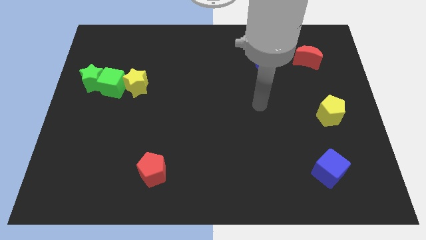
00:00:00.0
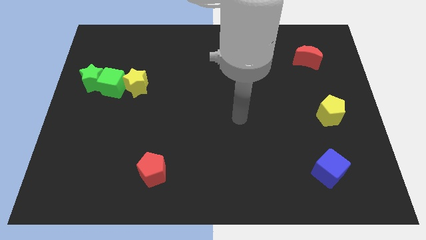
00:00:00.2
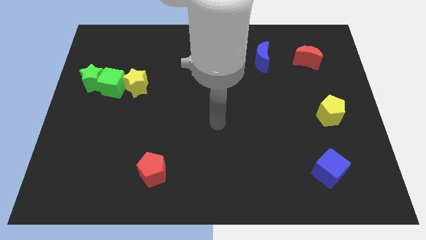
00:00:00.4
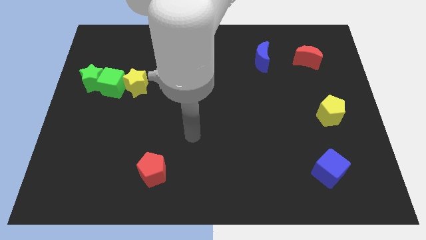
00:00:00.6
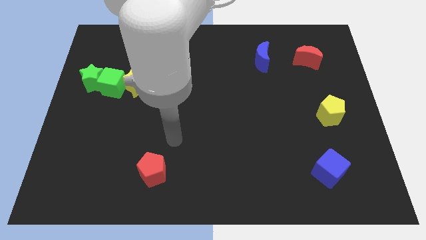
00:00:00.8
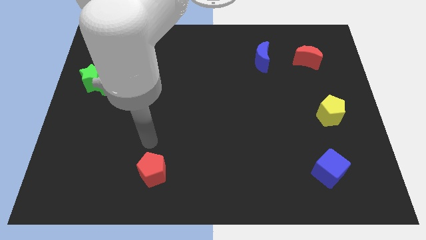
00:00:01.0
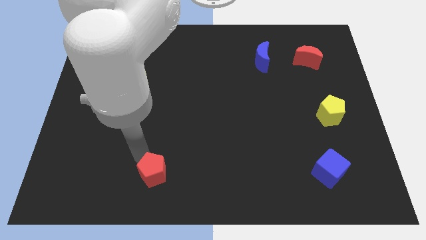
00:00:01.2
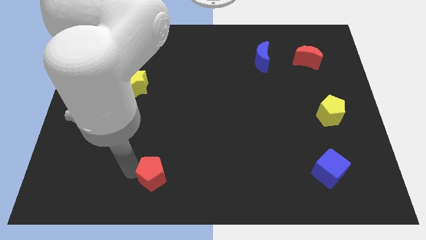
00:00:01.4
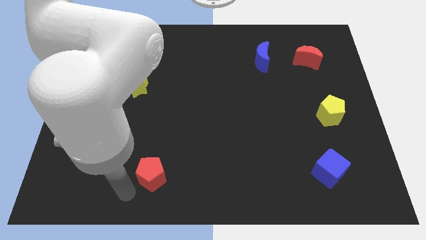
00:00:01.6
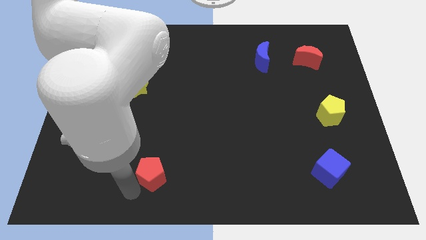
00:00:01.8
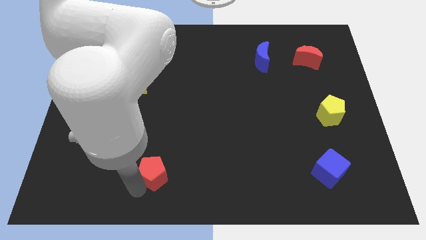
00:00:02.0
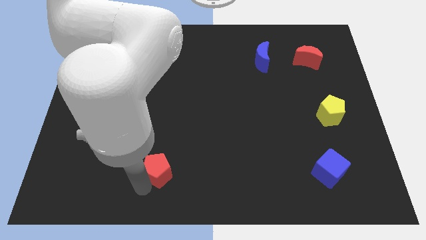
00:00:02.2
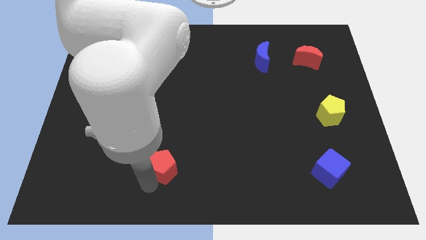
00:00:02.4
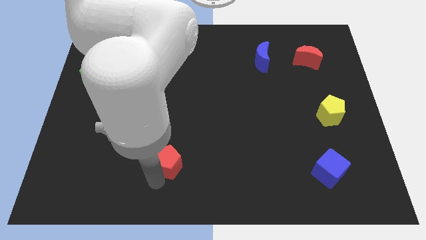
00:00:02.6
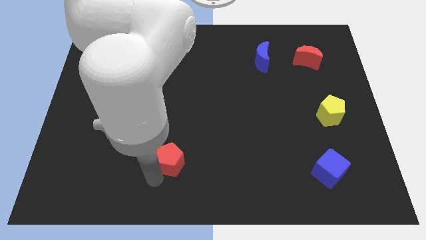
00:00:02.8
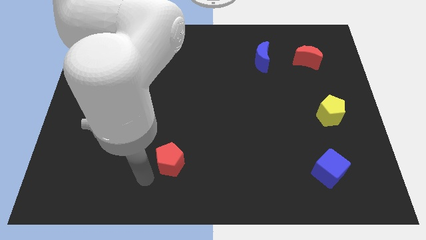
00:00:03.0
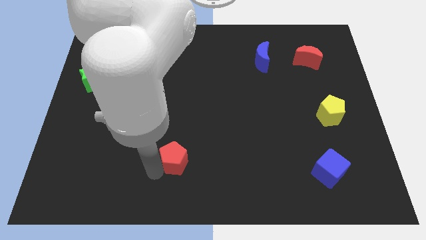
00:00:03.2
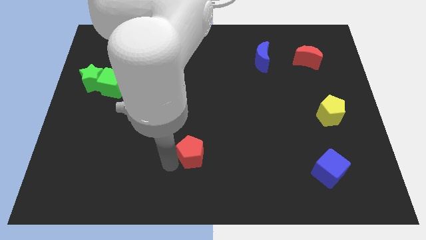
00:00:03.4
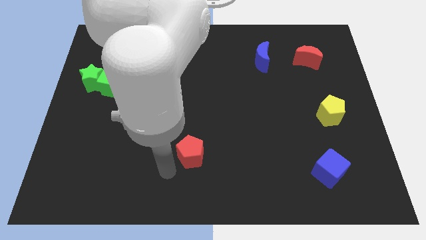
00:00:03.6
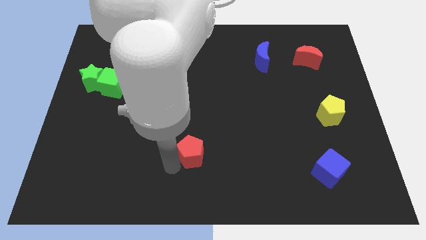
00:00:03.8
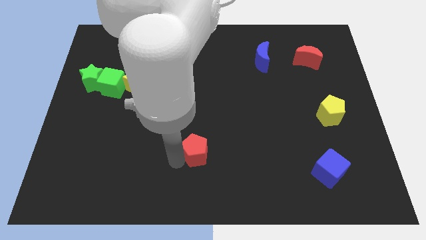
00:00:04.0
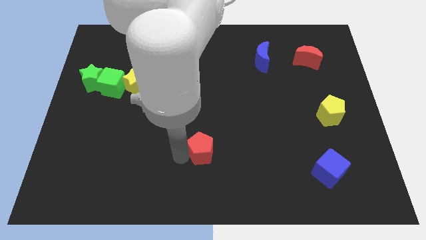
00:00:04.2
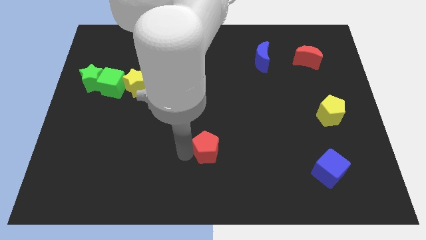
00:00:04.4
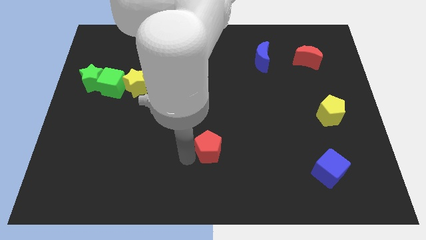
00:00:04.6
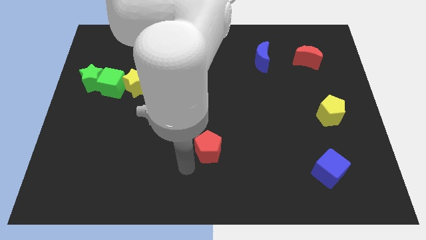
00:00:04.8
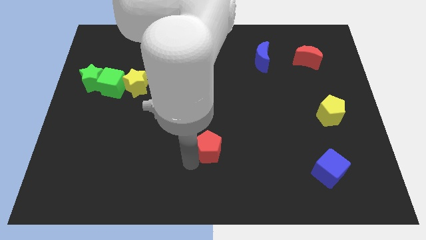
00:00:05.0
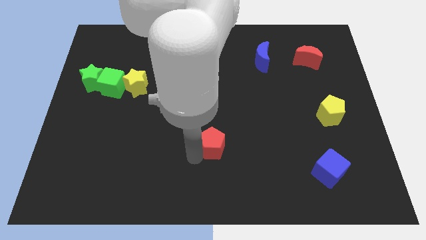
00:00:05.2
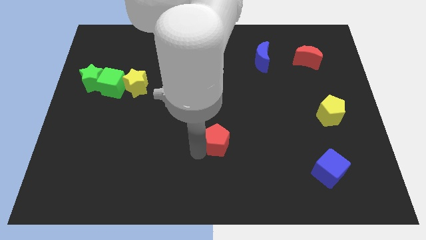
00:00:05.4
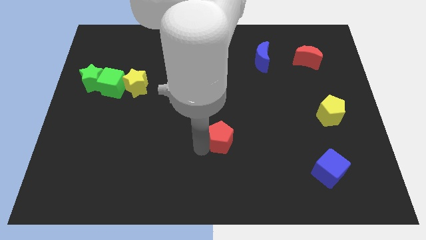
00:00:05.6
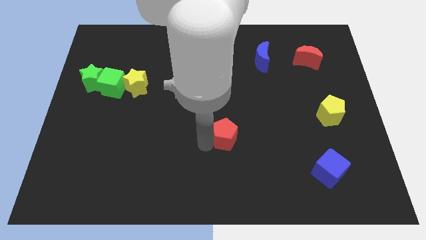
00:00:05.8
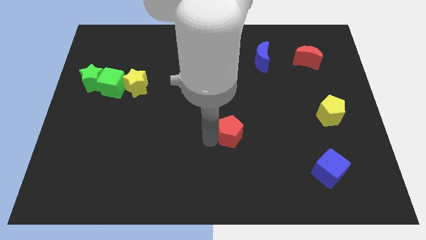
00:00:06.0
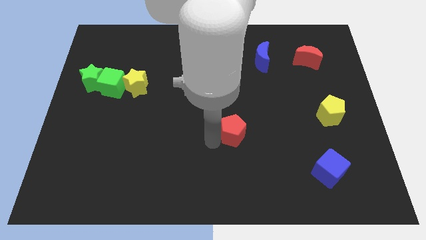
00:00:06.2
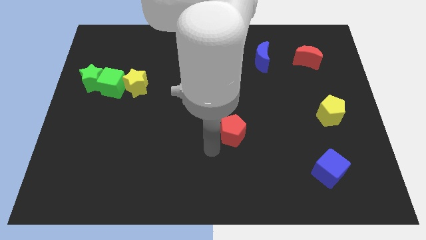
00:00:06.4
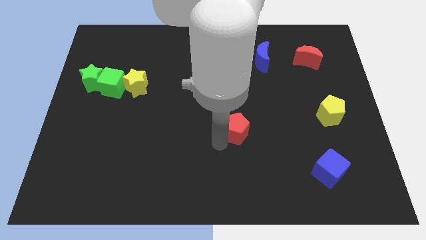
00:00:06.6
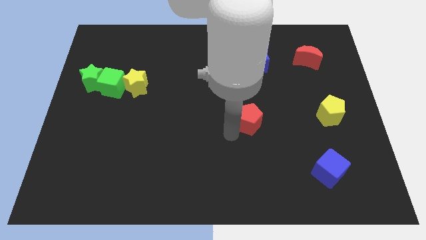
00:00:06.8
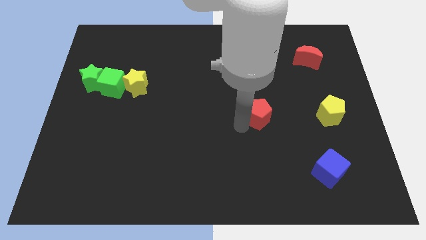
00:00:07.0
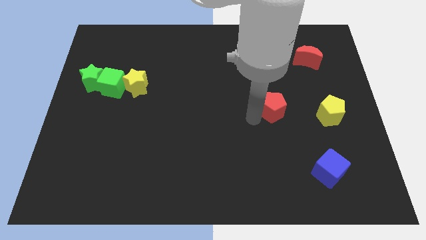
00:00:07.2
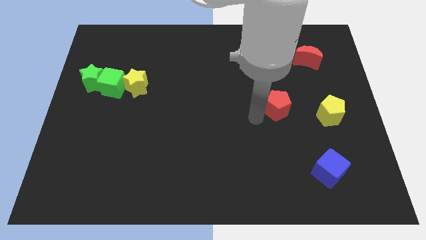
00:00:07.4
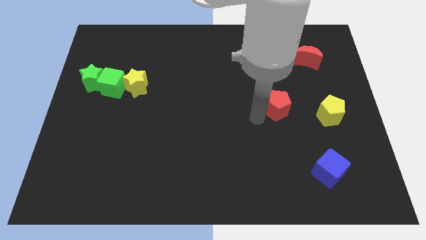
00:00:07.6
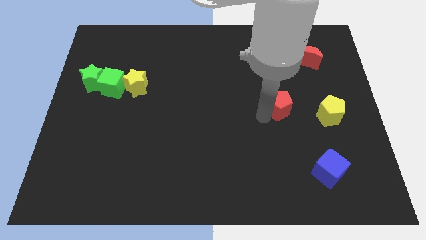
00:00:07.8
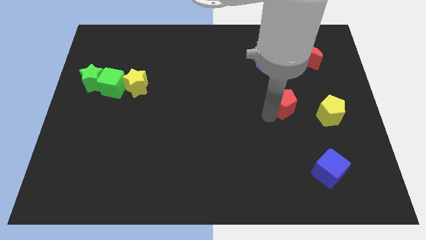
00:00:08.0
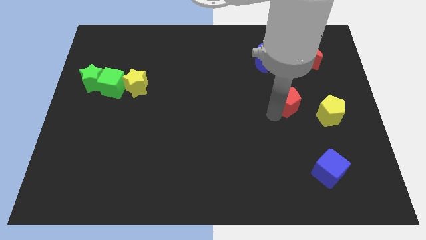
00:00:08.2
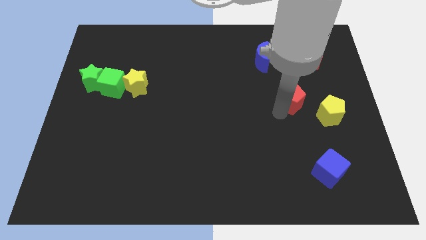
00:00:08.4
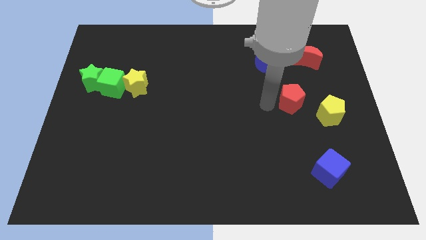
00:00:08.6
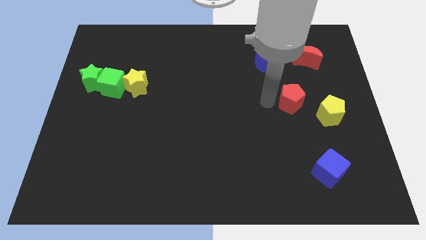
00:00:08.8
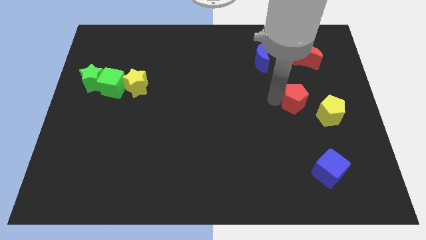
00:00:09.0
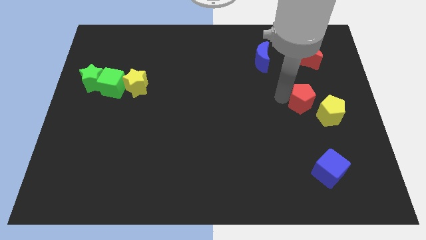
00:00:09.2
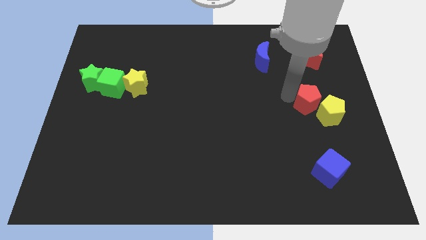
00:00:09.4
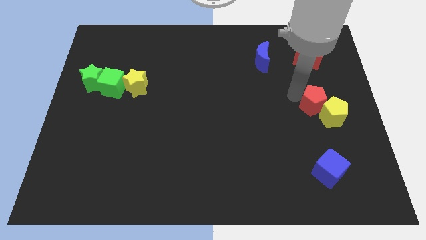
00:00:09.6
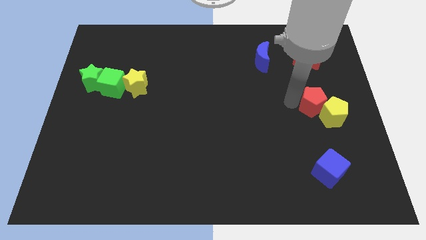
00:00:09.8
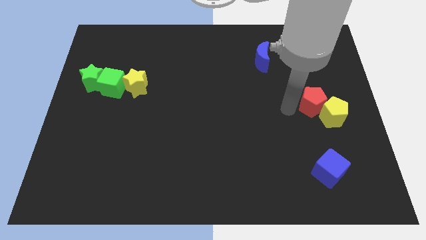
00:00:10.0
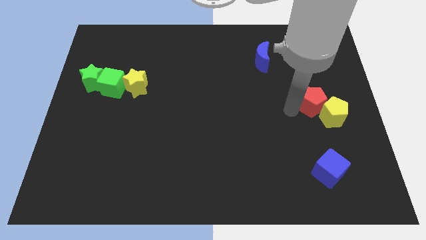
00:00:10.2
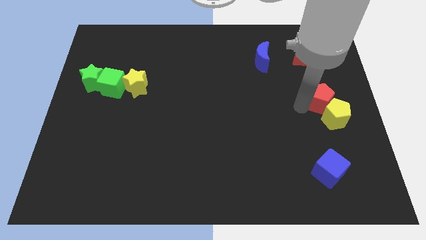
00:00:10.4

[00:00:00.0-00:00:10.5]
push the red pentagon to the right side

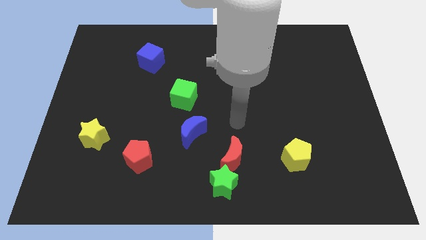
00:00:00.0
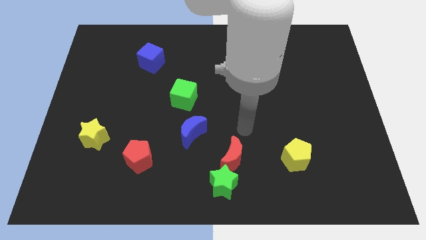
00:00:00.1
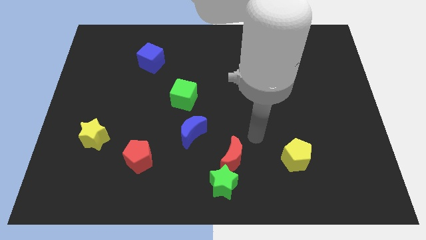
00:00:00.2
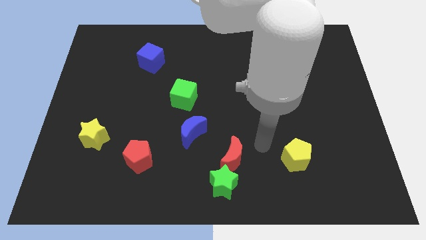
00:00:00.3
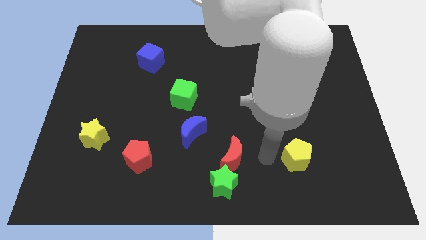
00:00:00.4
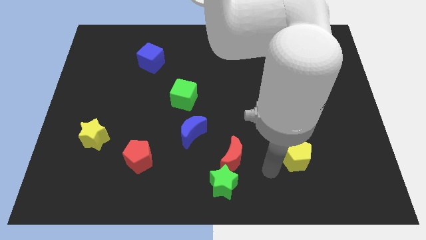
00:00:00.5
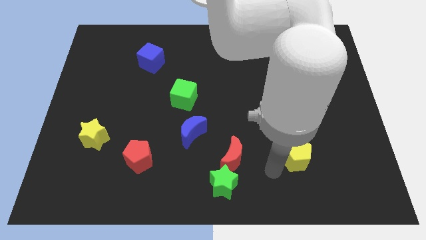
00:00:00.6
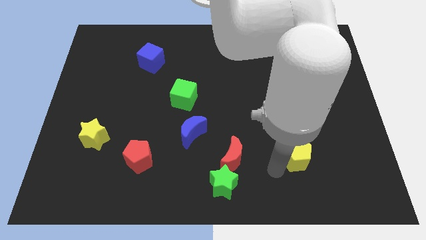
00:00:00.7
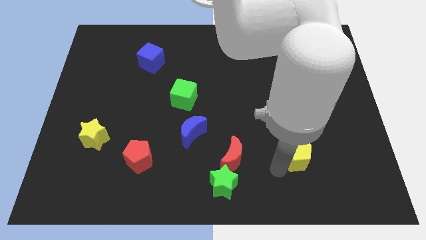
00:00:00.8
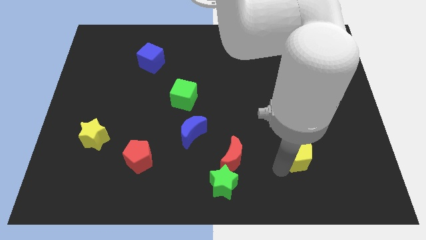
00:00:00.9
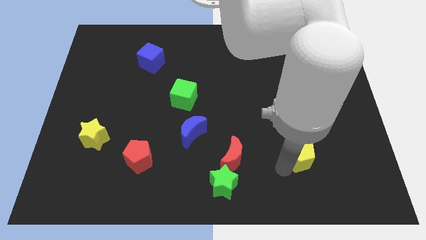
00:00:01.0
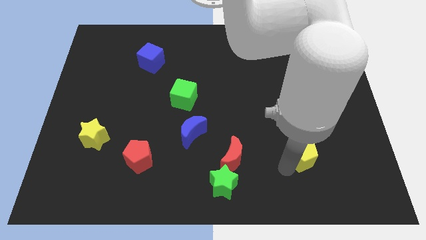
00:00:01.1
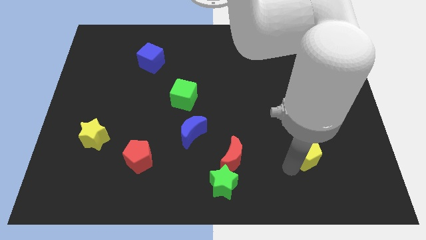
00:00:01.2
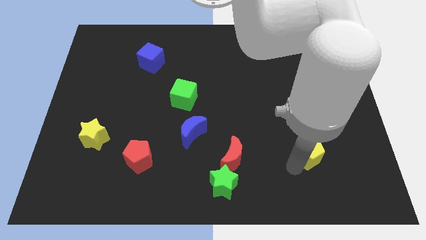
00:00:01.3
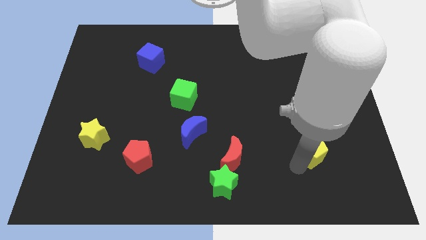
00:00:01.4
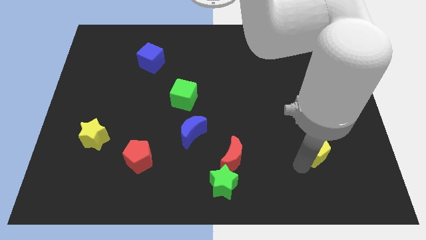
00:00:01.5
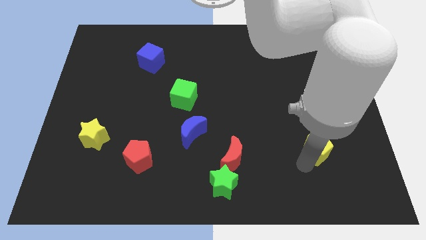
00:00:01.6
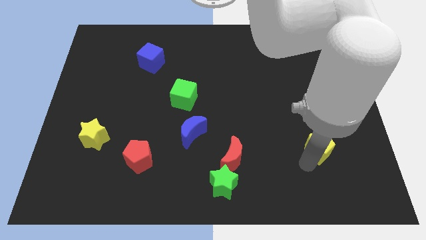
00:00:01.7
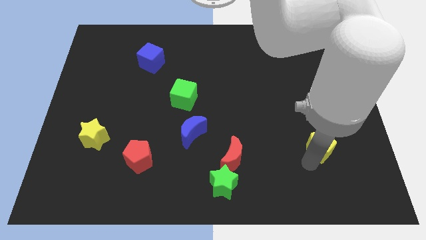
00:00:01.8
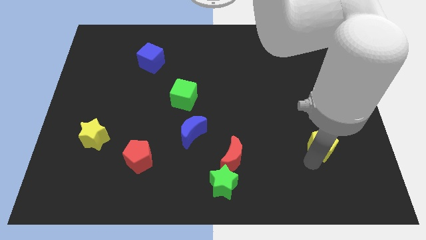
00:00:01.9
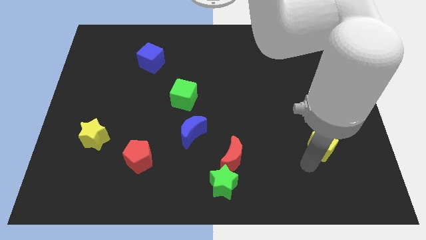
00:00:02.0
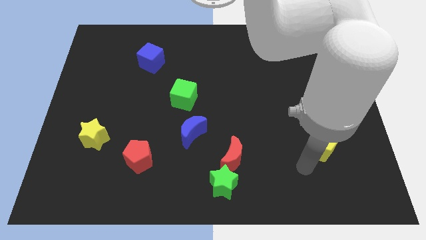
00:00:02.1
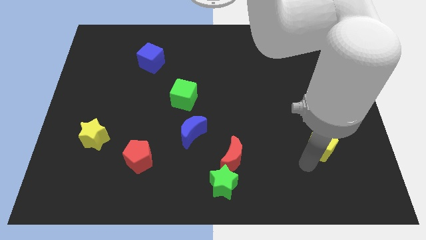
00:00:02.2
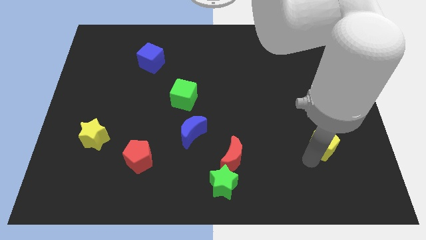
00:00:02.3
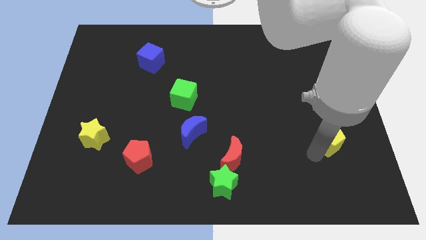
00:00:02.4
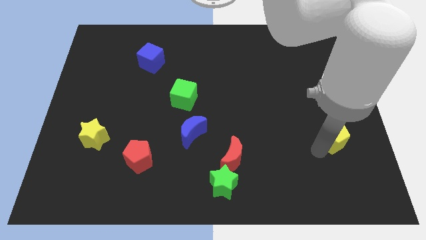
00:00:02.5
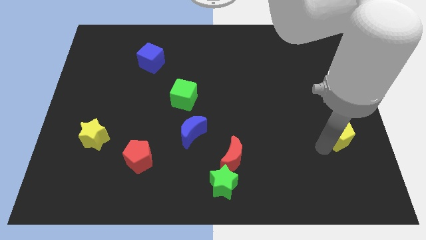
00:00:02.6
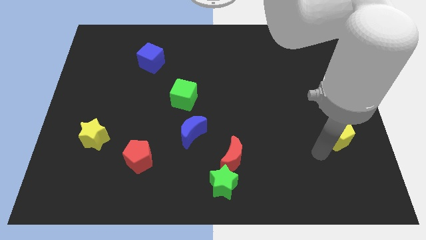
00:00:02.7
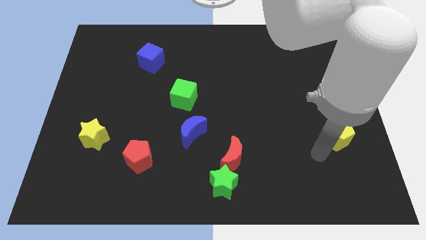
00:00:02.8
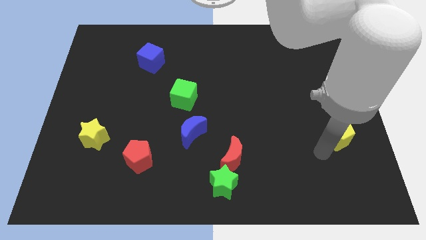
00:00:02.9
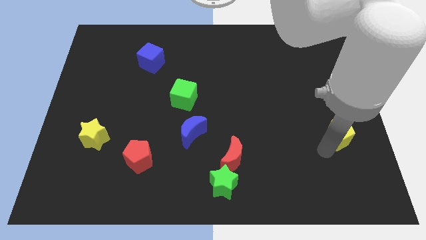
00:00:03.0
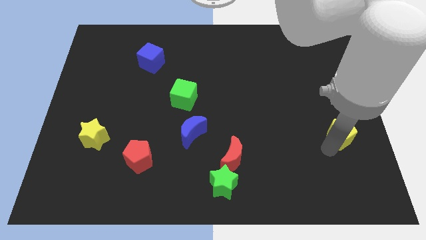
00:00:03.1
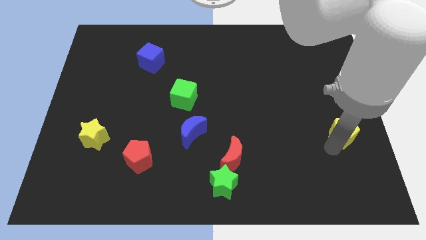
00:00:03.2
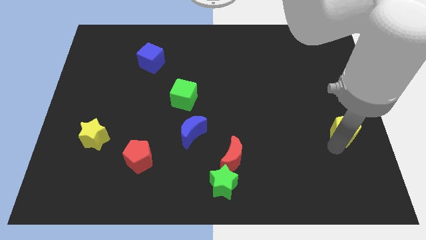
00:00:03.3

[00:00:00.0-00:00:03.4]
put the yellow pentagon to the right side
